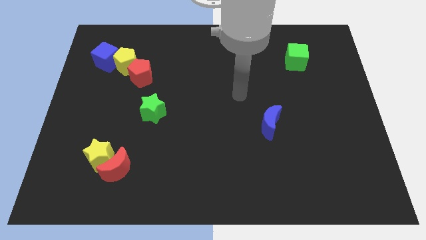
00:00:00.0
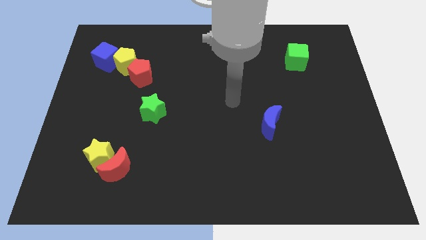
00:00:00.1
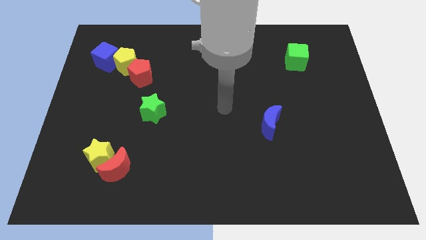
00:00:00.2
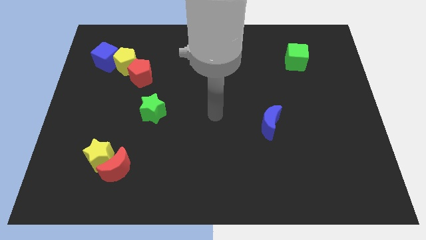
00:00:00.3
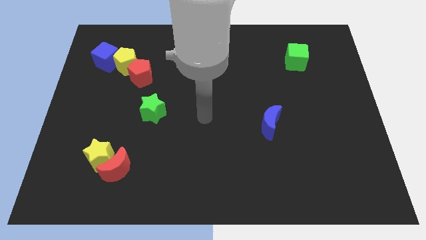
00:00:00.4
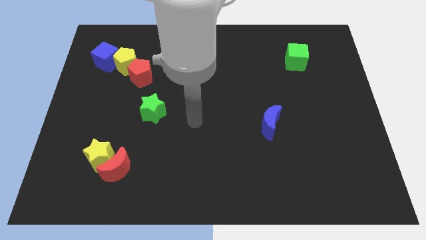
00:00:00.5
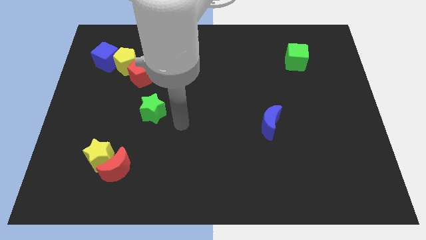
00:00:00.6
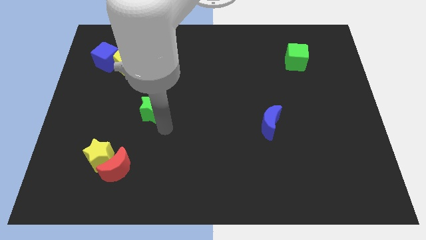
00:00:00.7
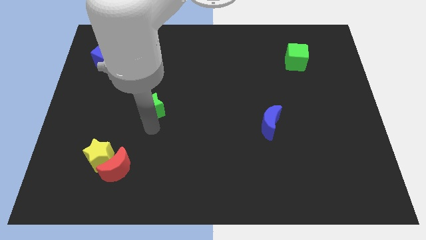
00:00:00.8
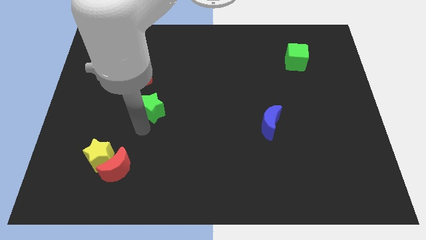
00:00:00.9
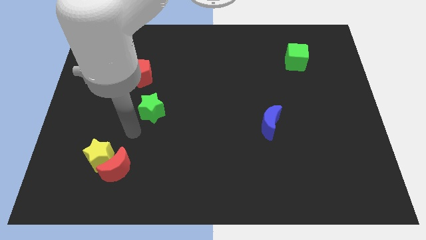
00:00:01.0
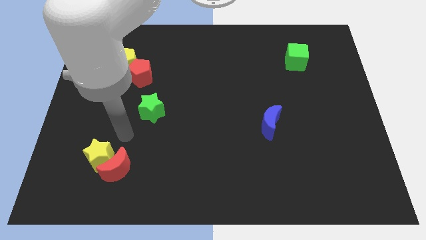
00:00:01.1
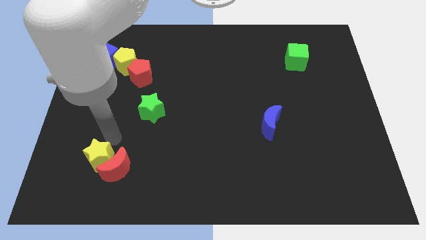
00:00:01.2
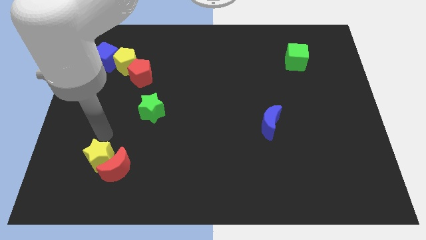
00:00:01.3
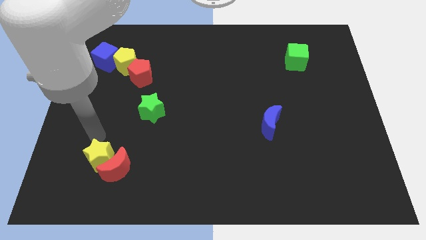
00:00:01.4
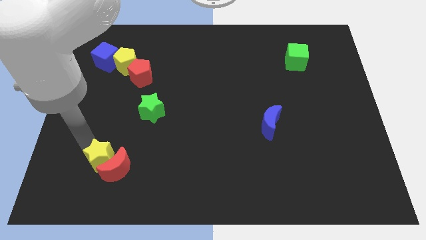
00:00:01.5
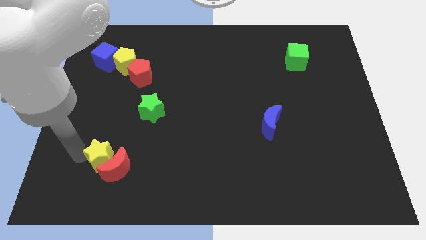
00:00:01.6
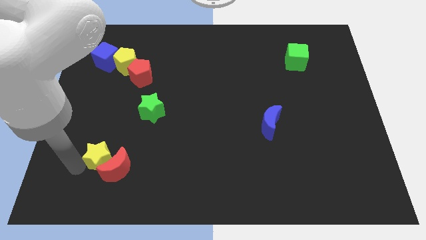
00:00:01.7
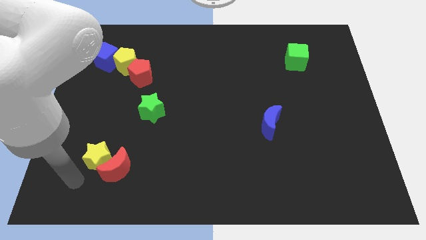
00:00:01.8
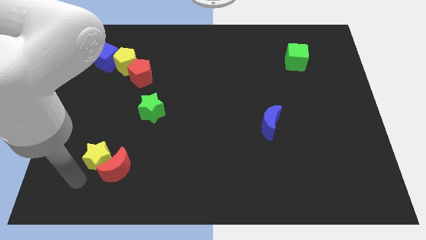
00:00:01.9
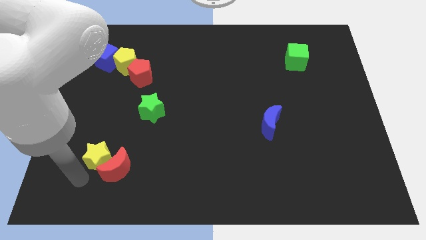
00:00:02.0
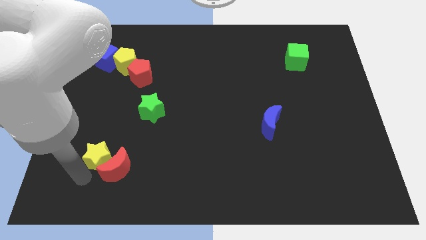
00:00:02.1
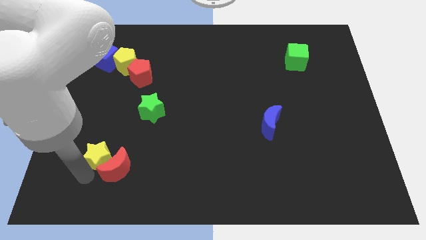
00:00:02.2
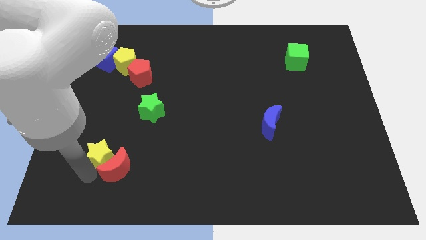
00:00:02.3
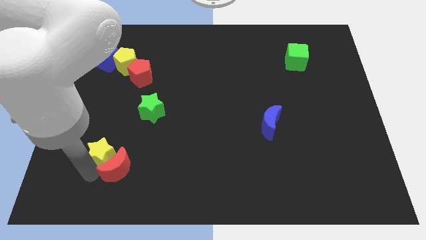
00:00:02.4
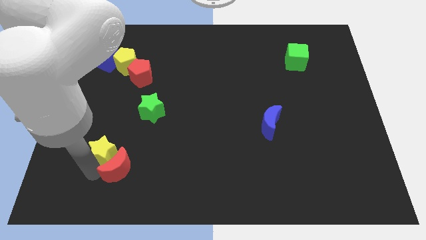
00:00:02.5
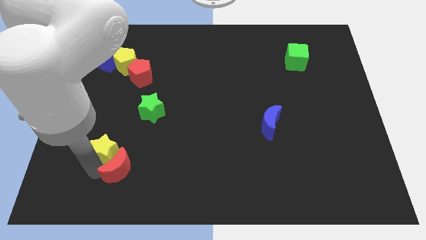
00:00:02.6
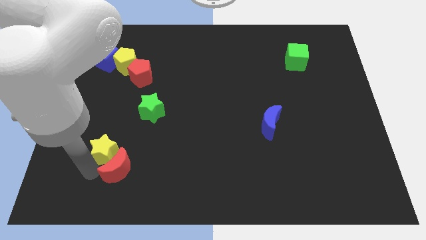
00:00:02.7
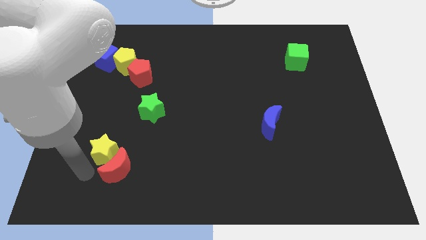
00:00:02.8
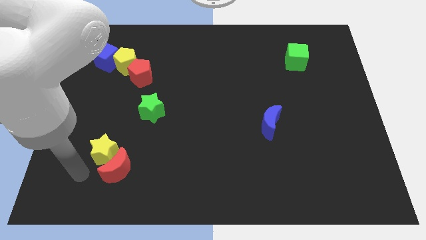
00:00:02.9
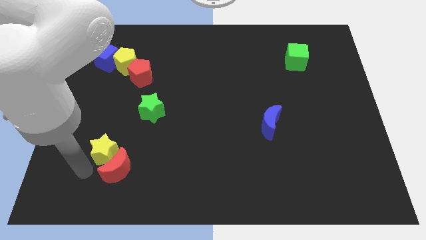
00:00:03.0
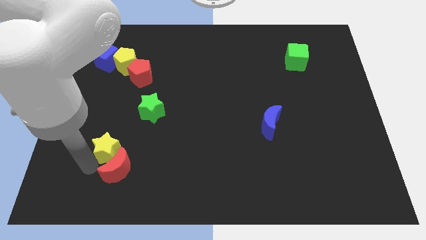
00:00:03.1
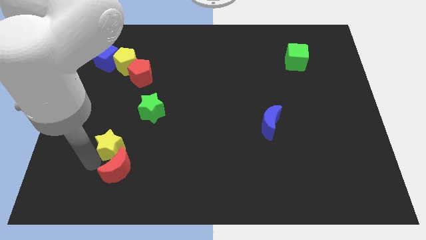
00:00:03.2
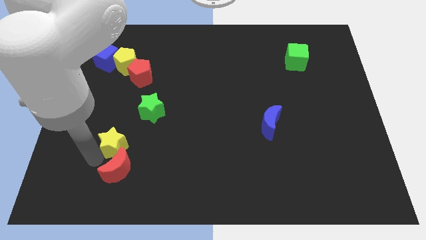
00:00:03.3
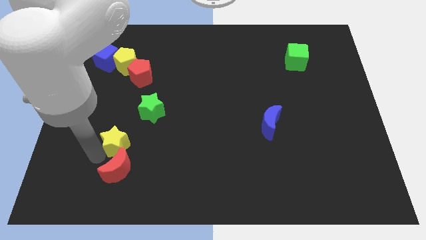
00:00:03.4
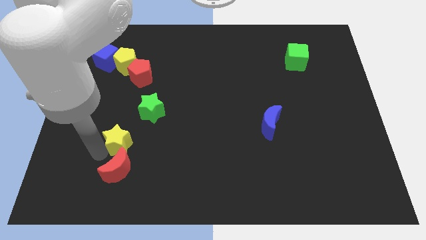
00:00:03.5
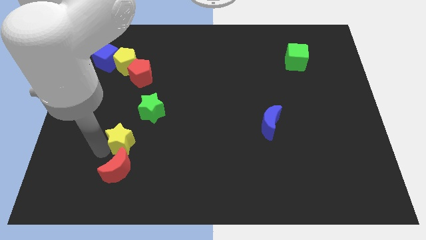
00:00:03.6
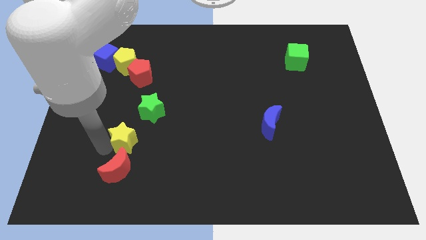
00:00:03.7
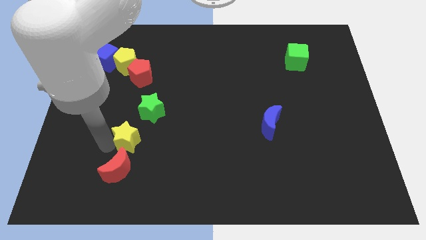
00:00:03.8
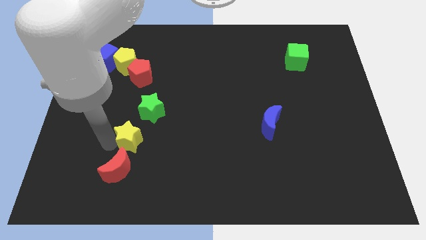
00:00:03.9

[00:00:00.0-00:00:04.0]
slightly push the yellow star upwards and right

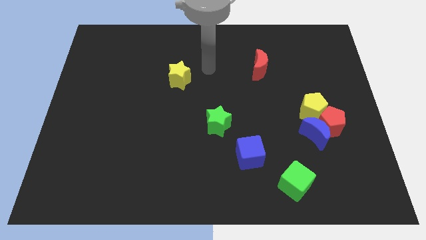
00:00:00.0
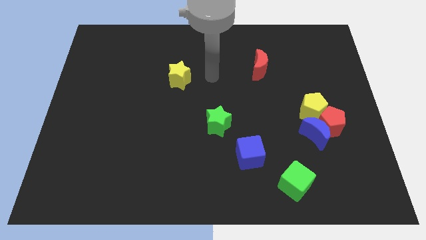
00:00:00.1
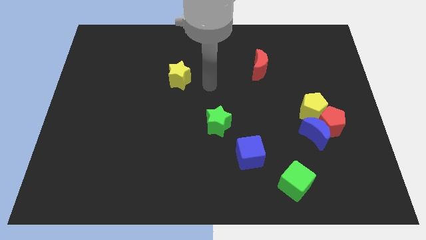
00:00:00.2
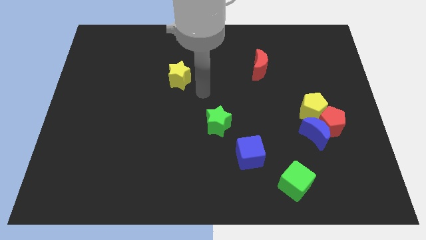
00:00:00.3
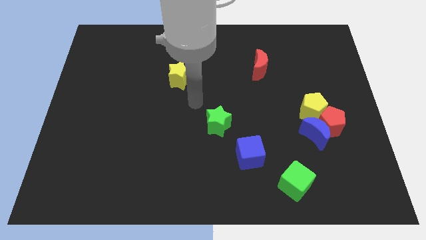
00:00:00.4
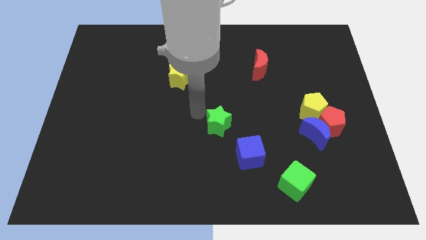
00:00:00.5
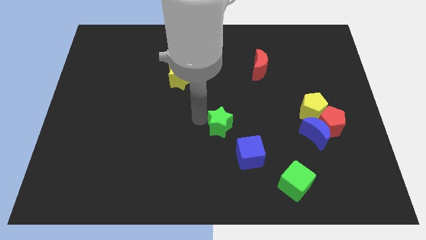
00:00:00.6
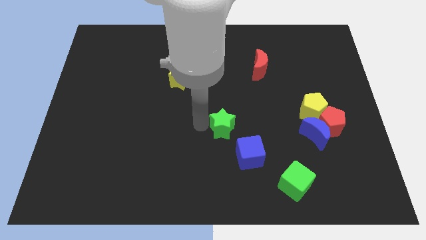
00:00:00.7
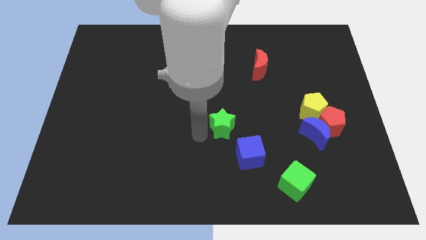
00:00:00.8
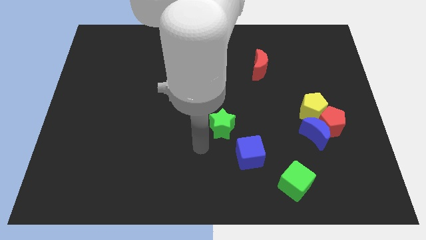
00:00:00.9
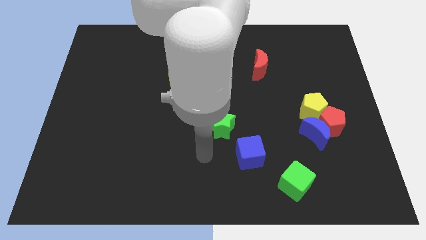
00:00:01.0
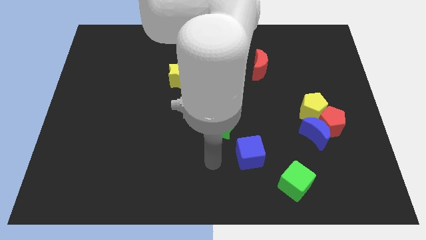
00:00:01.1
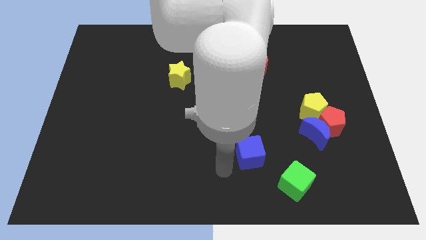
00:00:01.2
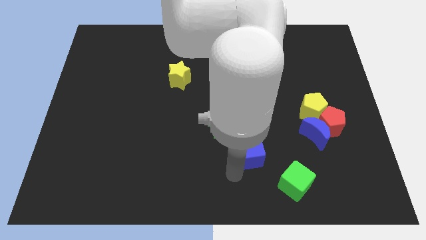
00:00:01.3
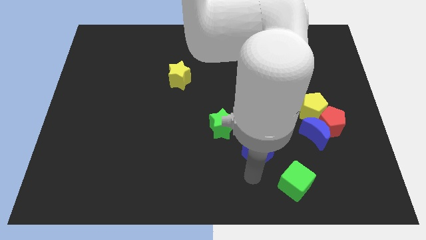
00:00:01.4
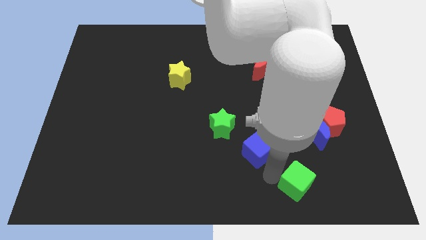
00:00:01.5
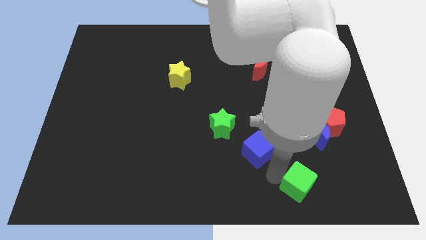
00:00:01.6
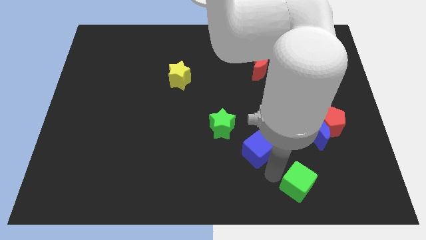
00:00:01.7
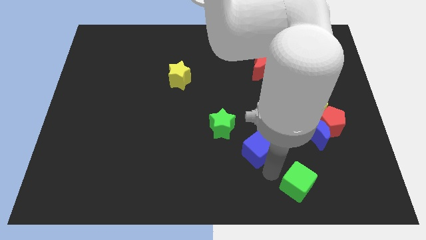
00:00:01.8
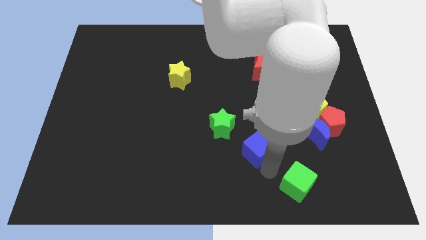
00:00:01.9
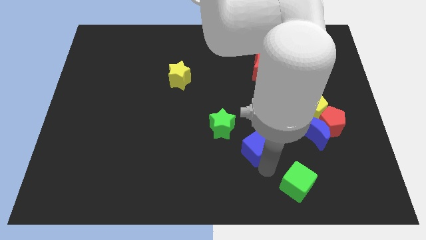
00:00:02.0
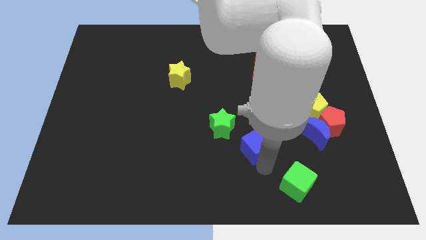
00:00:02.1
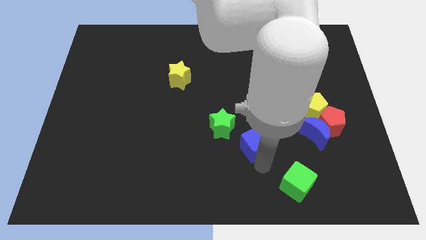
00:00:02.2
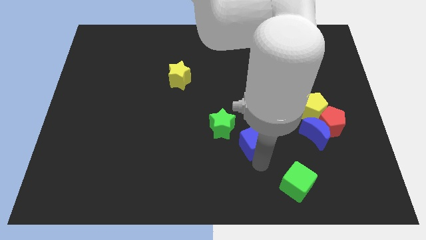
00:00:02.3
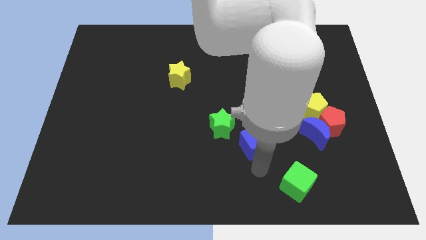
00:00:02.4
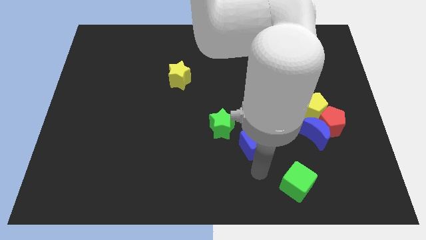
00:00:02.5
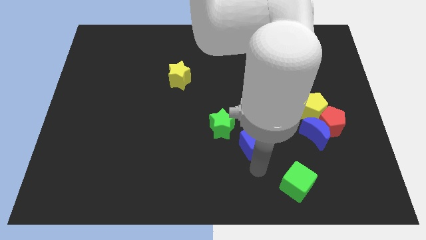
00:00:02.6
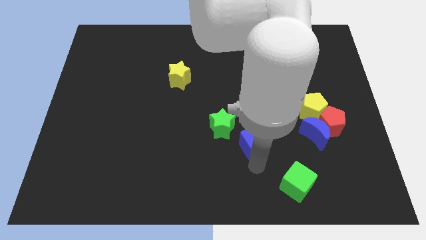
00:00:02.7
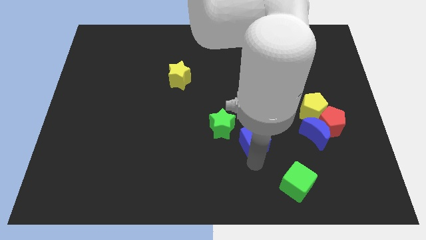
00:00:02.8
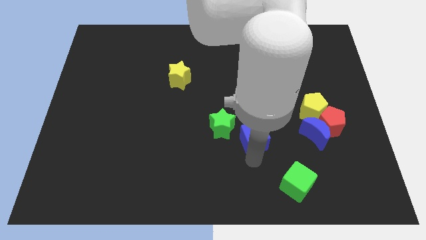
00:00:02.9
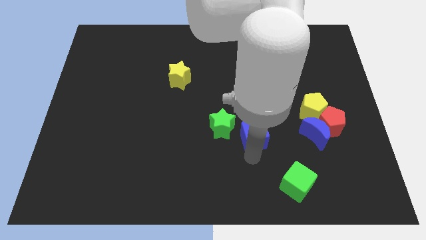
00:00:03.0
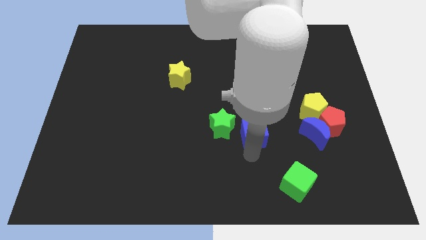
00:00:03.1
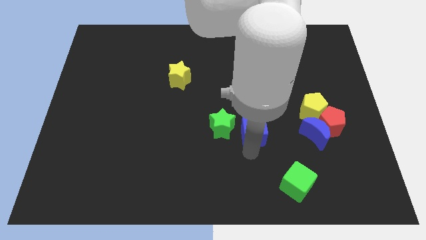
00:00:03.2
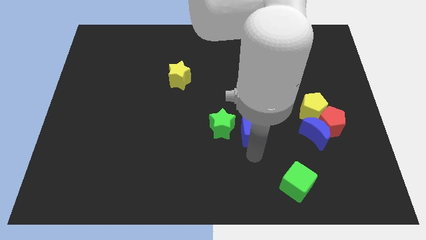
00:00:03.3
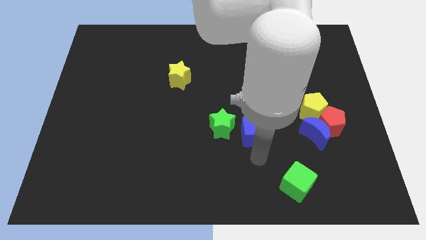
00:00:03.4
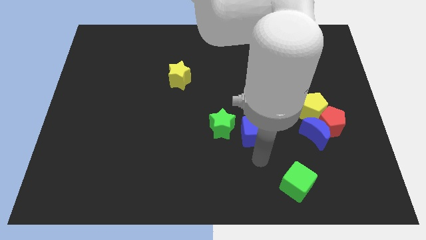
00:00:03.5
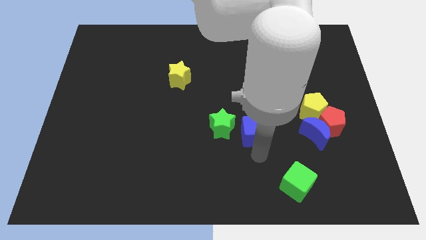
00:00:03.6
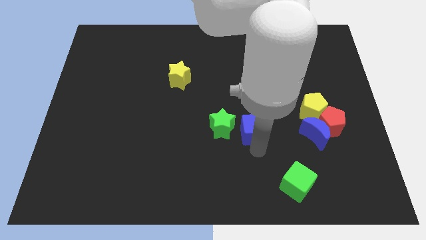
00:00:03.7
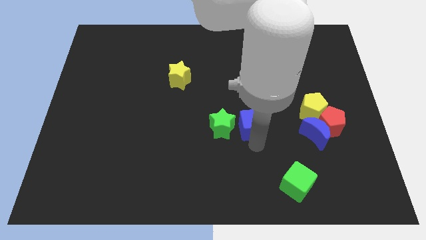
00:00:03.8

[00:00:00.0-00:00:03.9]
push the blue cube upwards slightly
